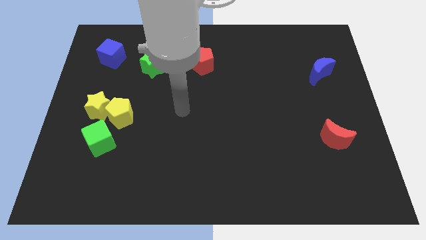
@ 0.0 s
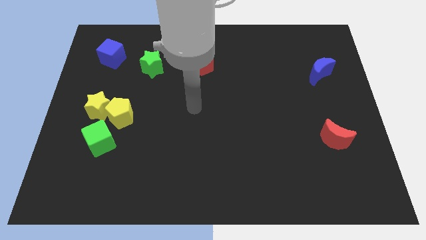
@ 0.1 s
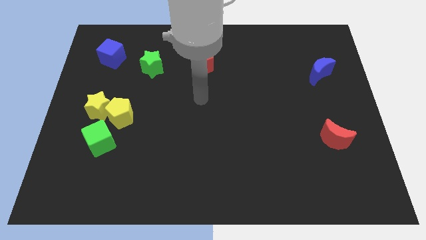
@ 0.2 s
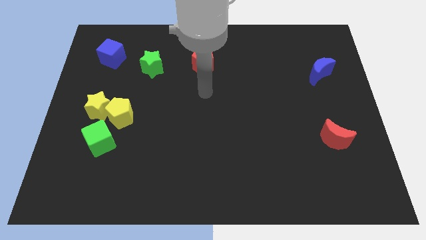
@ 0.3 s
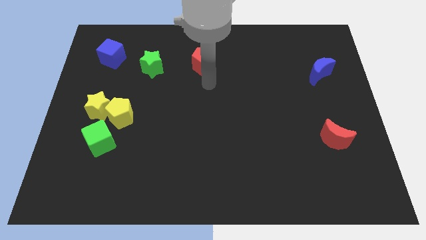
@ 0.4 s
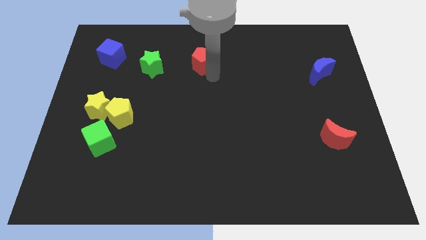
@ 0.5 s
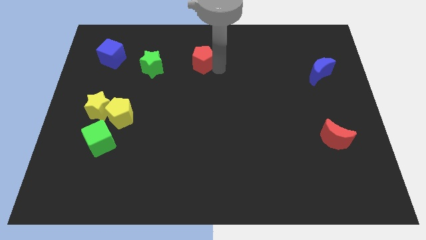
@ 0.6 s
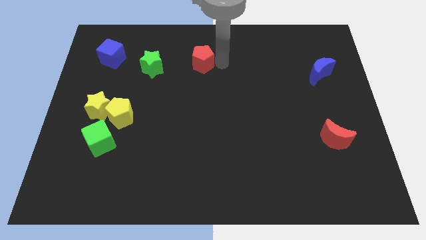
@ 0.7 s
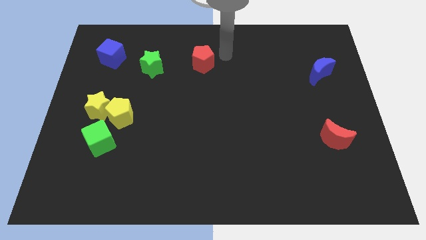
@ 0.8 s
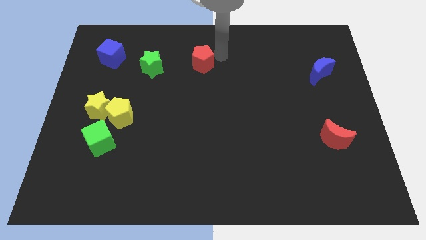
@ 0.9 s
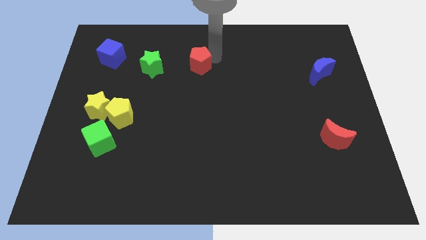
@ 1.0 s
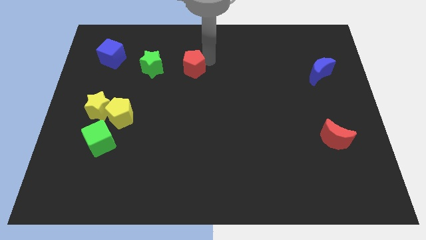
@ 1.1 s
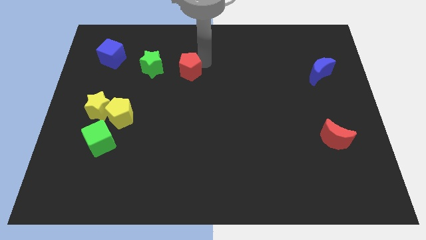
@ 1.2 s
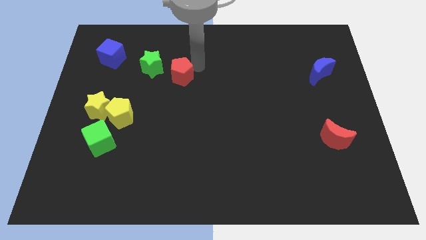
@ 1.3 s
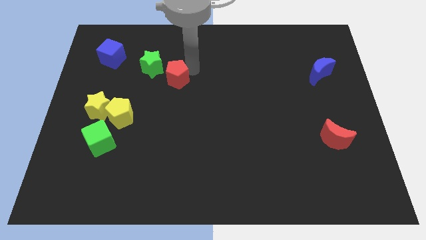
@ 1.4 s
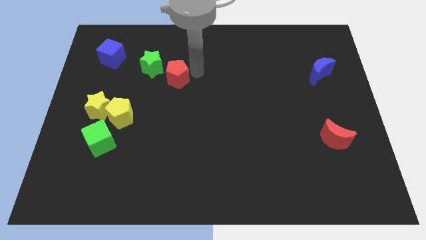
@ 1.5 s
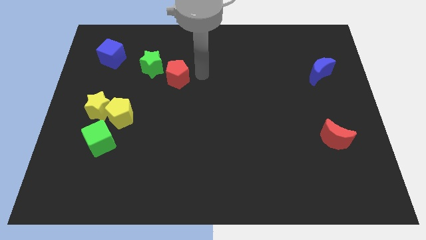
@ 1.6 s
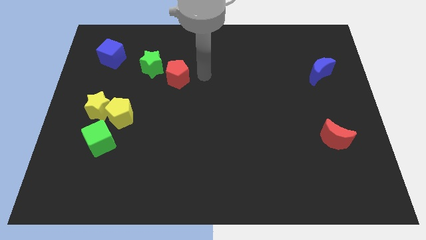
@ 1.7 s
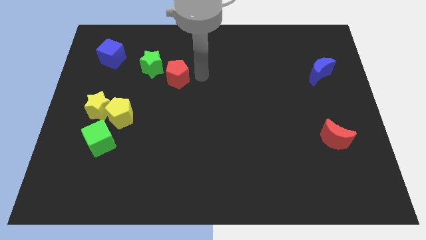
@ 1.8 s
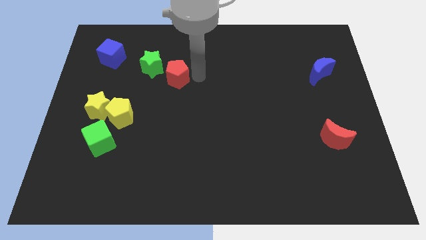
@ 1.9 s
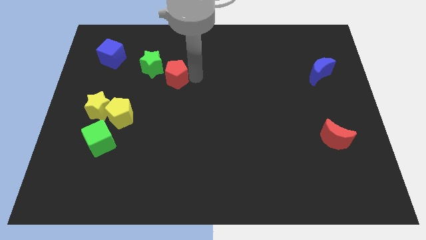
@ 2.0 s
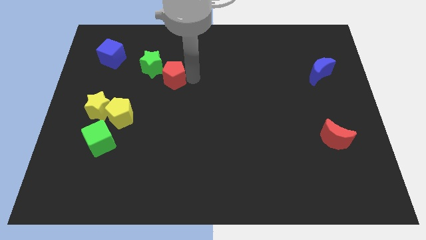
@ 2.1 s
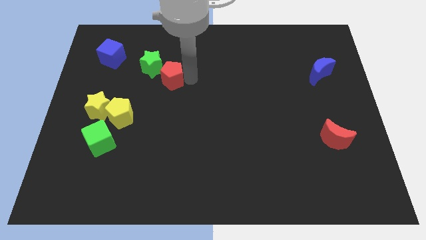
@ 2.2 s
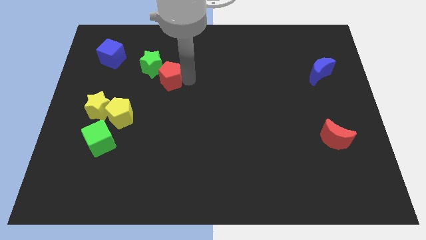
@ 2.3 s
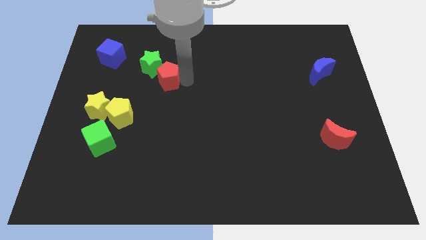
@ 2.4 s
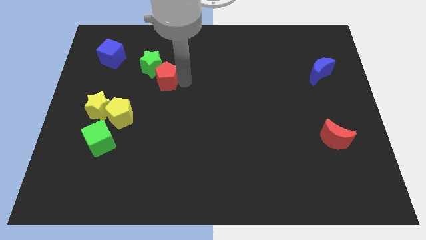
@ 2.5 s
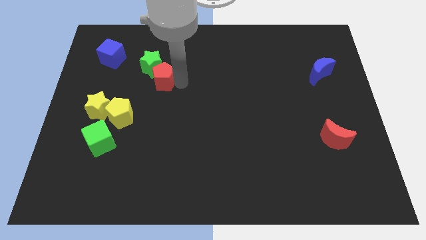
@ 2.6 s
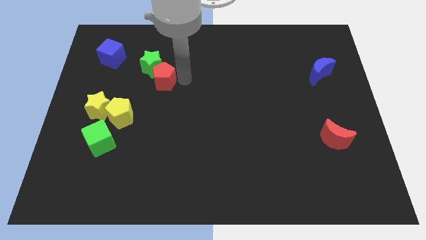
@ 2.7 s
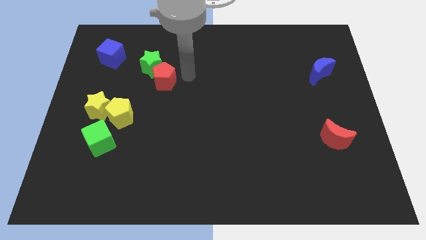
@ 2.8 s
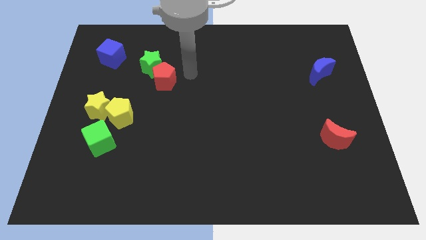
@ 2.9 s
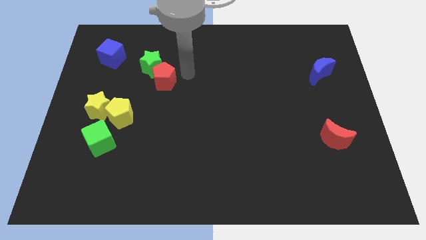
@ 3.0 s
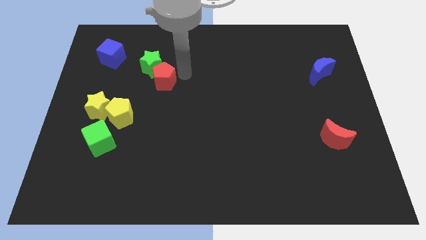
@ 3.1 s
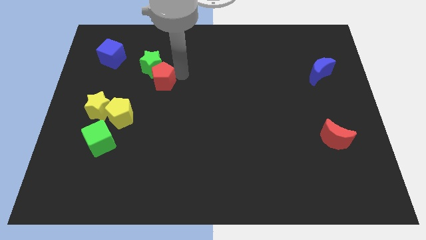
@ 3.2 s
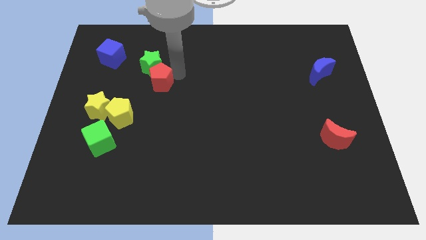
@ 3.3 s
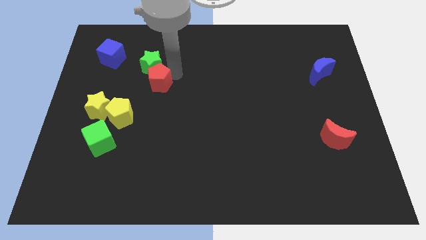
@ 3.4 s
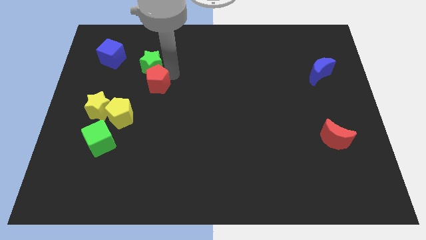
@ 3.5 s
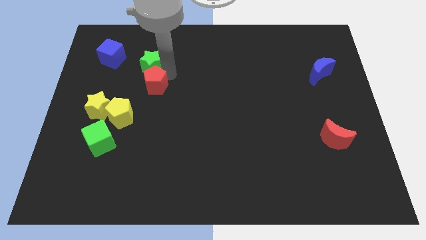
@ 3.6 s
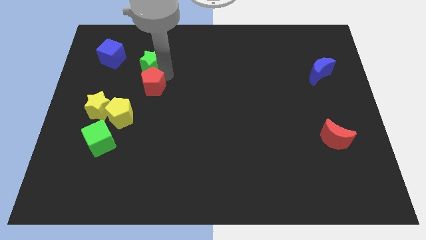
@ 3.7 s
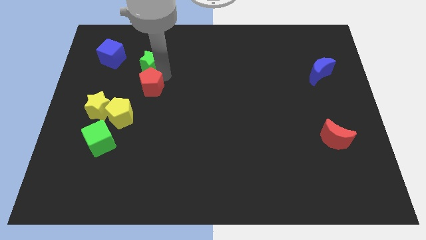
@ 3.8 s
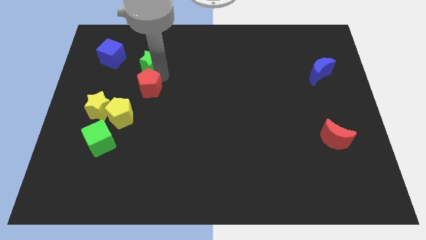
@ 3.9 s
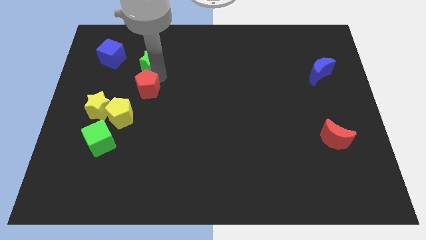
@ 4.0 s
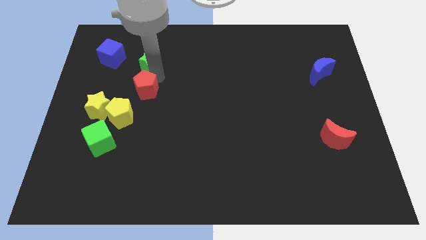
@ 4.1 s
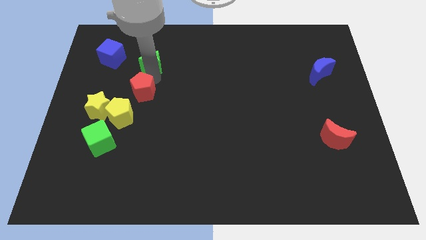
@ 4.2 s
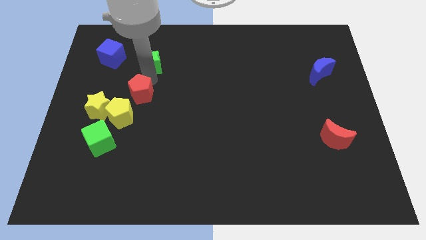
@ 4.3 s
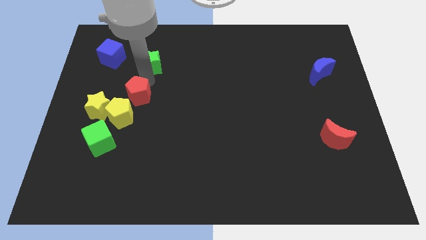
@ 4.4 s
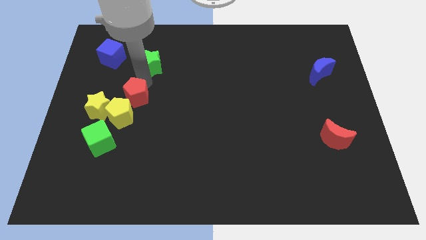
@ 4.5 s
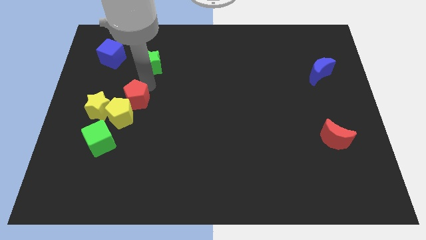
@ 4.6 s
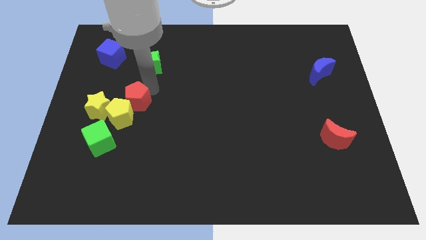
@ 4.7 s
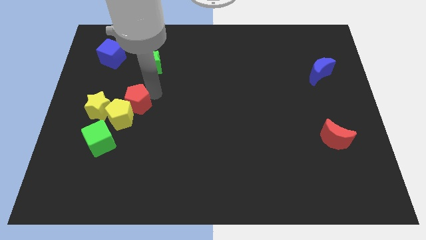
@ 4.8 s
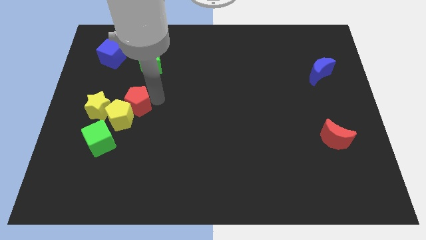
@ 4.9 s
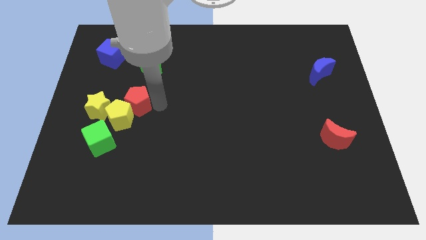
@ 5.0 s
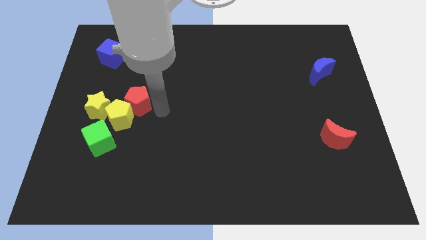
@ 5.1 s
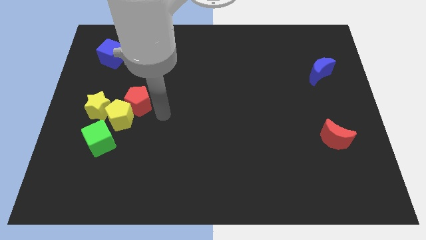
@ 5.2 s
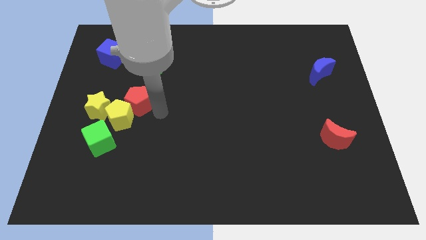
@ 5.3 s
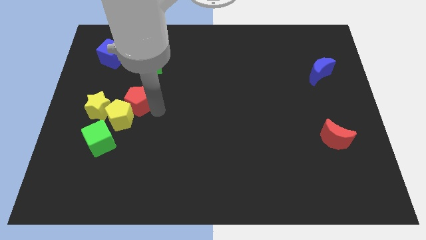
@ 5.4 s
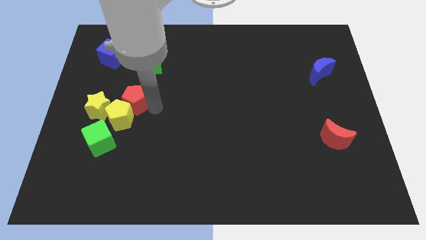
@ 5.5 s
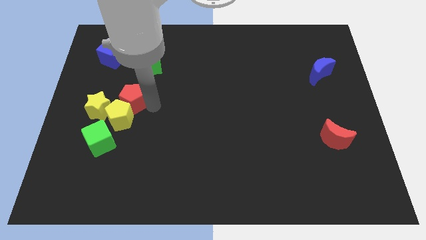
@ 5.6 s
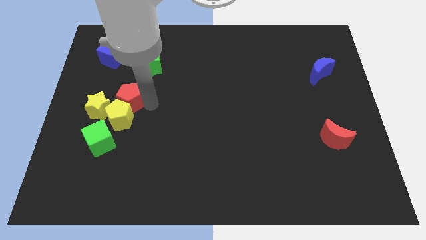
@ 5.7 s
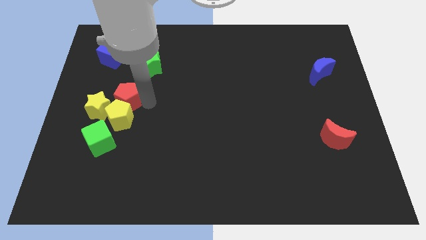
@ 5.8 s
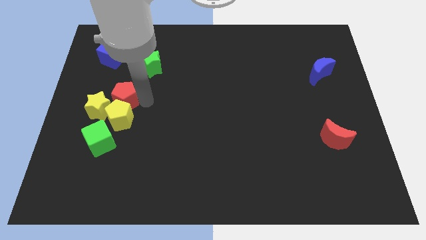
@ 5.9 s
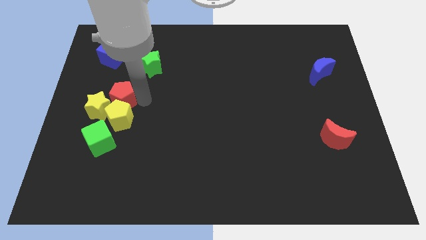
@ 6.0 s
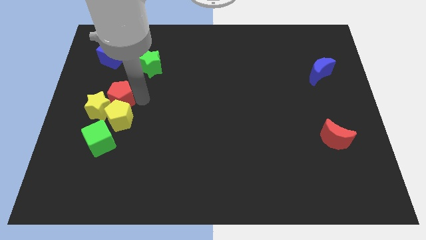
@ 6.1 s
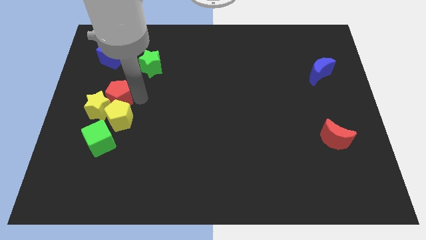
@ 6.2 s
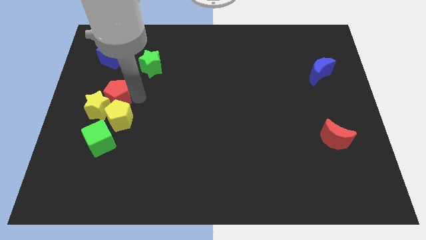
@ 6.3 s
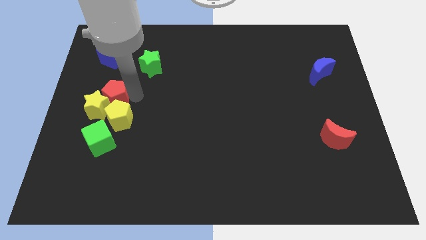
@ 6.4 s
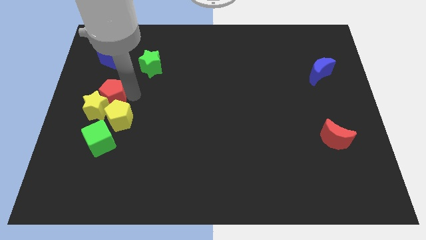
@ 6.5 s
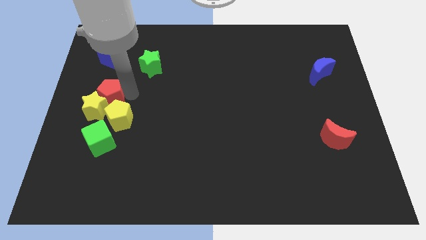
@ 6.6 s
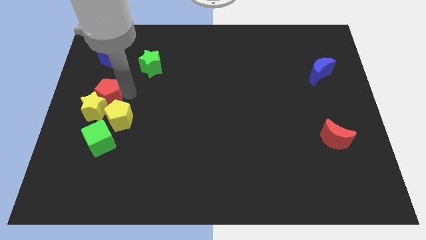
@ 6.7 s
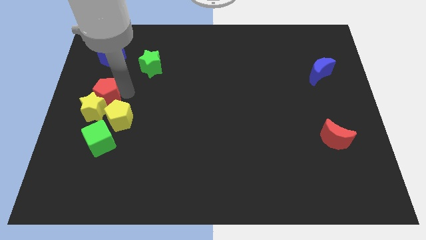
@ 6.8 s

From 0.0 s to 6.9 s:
slide the red pentagon to the left side

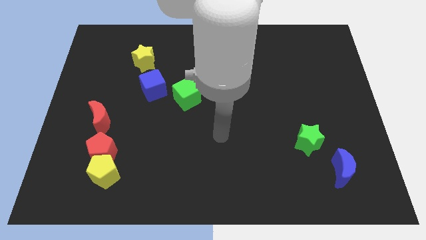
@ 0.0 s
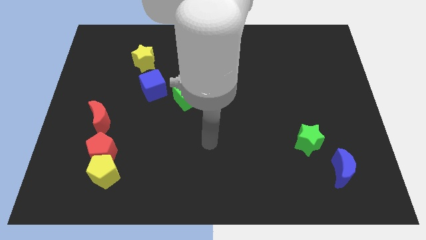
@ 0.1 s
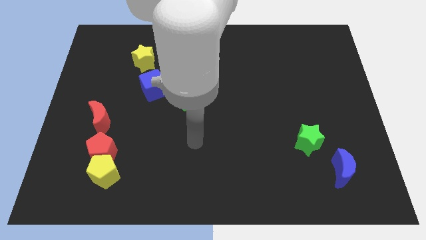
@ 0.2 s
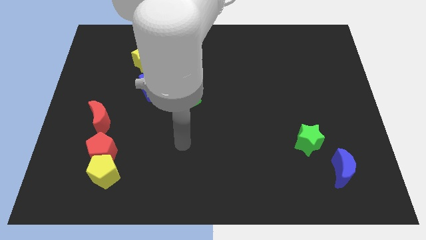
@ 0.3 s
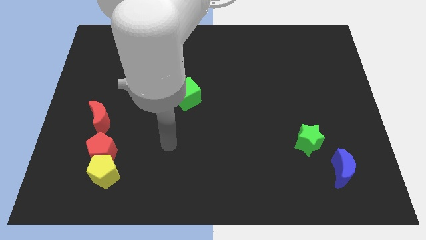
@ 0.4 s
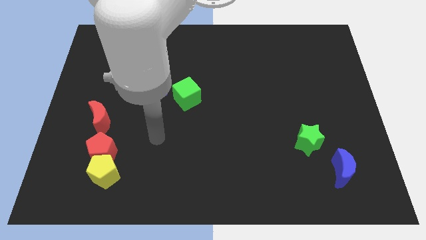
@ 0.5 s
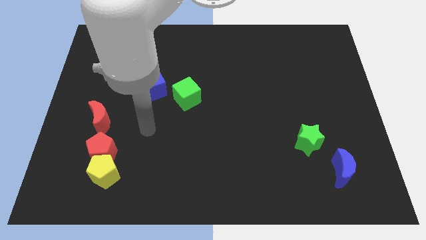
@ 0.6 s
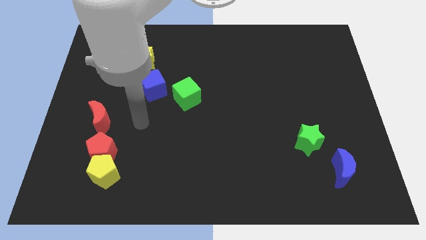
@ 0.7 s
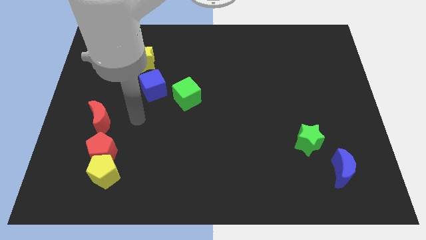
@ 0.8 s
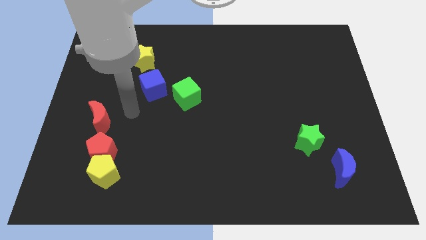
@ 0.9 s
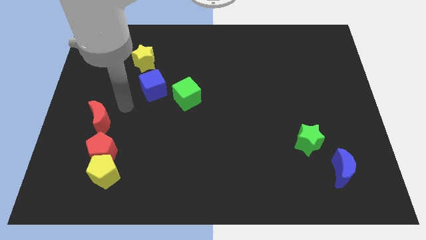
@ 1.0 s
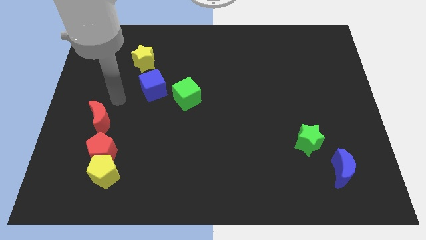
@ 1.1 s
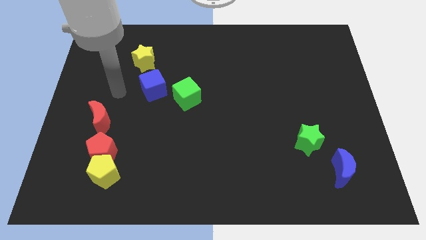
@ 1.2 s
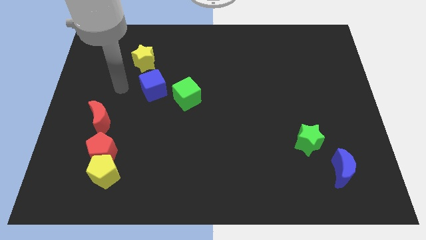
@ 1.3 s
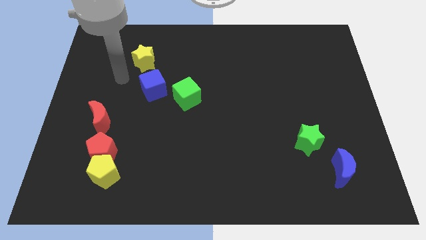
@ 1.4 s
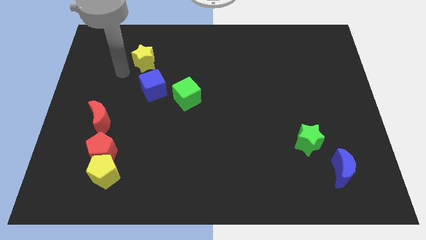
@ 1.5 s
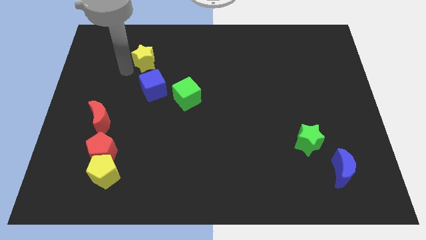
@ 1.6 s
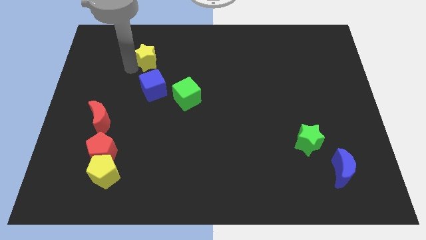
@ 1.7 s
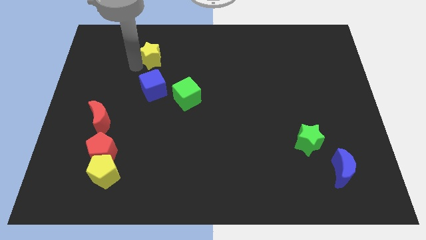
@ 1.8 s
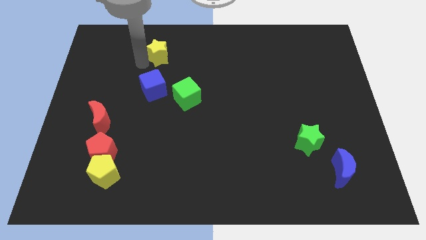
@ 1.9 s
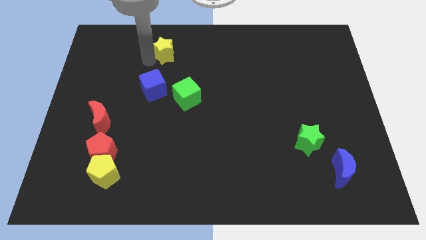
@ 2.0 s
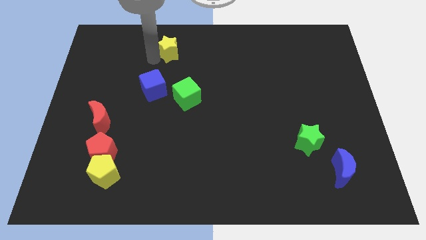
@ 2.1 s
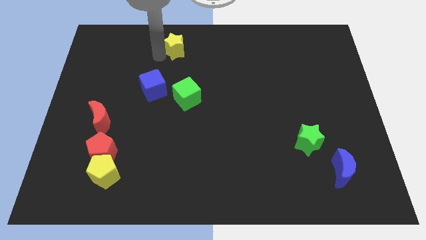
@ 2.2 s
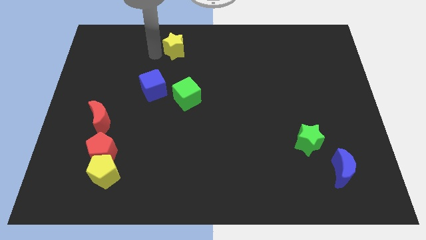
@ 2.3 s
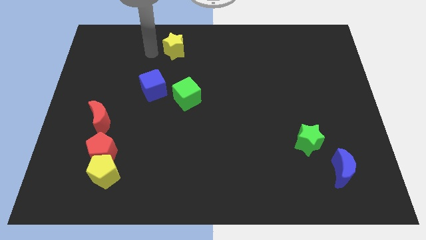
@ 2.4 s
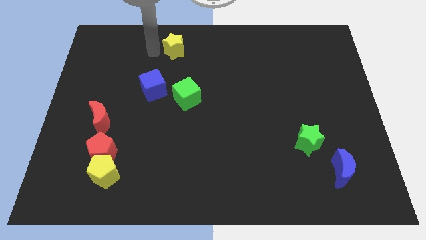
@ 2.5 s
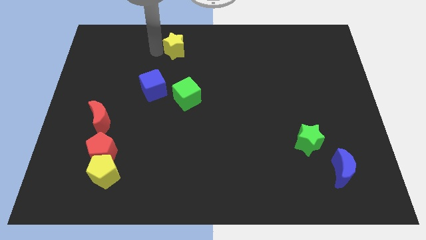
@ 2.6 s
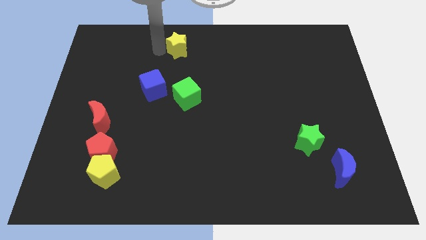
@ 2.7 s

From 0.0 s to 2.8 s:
move the yellow star to the top
